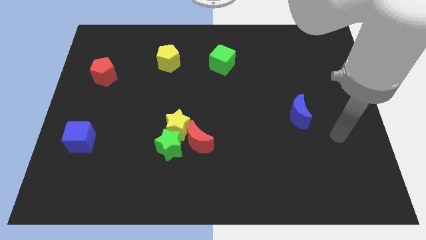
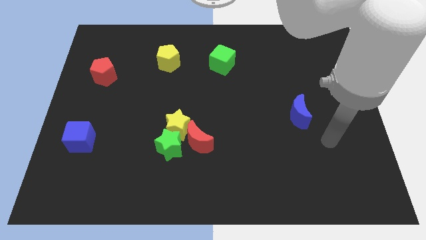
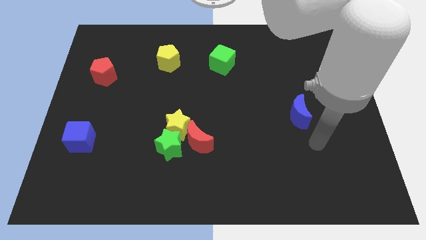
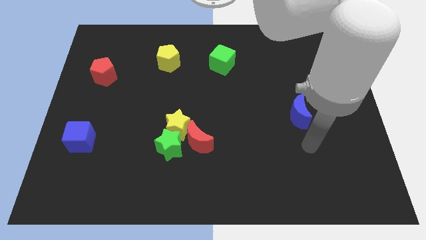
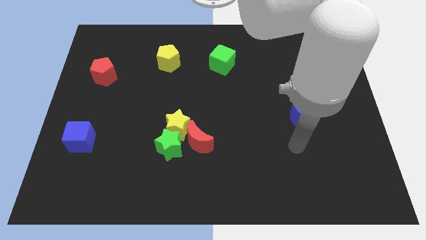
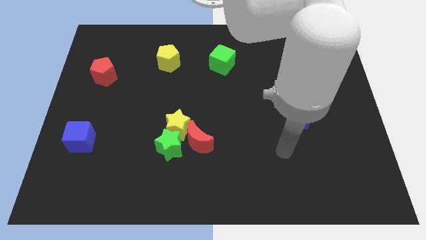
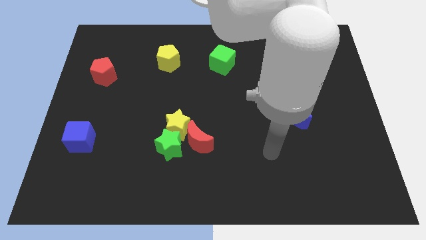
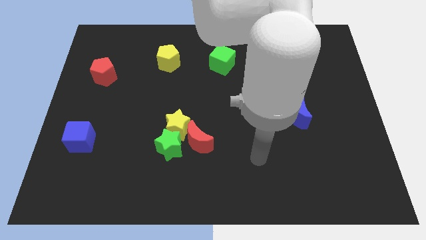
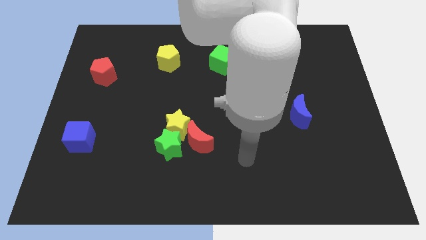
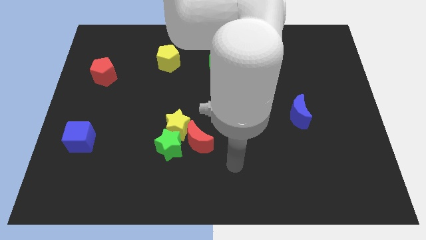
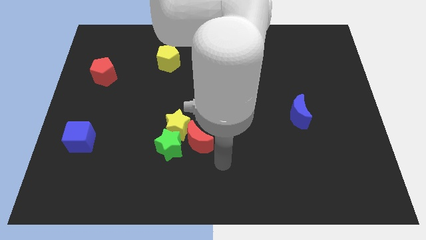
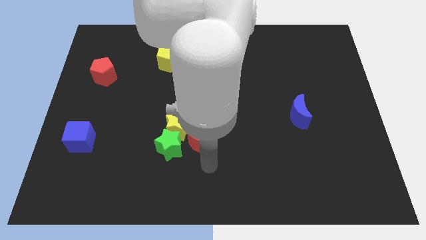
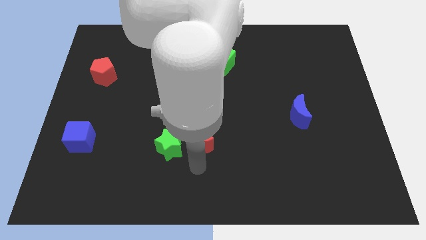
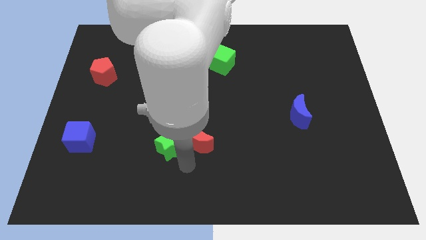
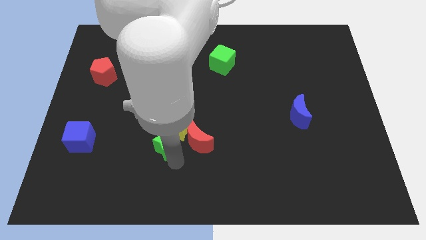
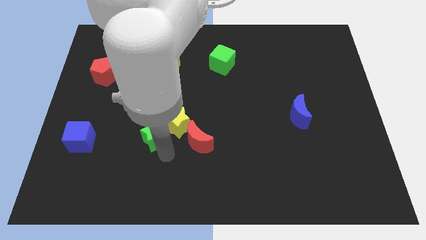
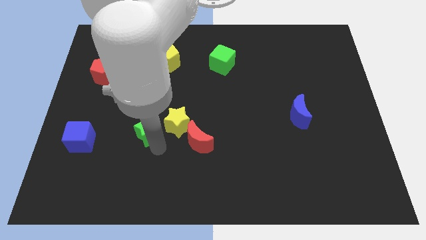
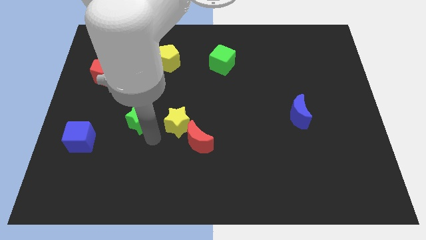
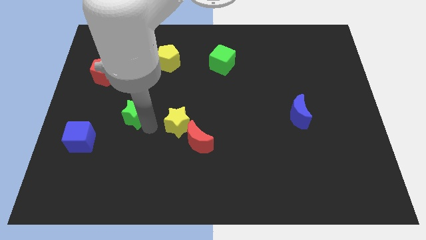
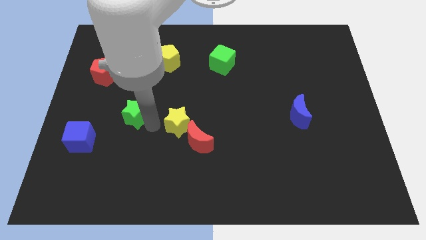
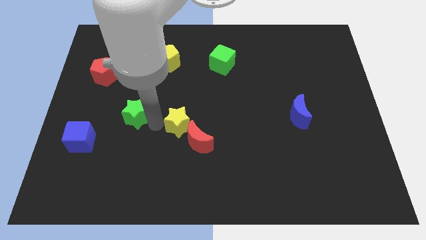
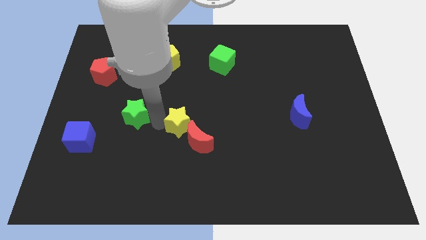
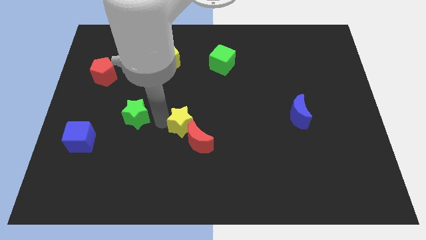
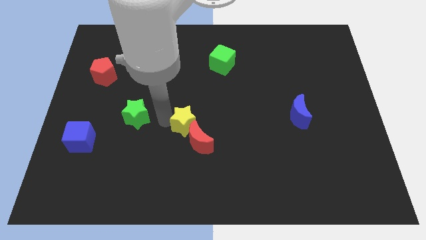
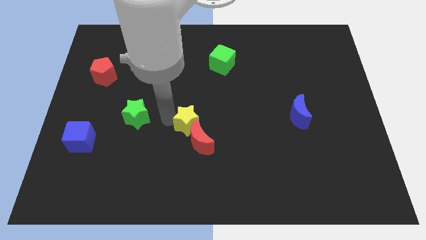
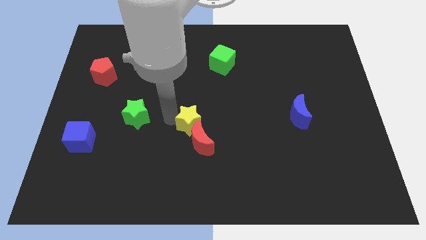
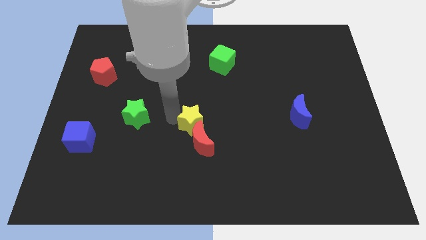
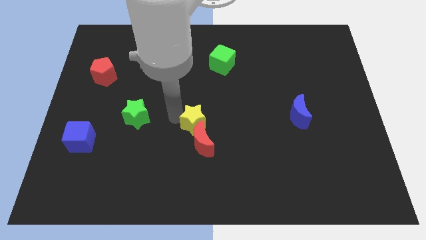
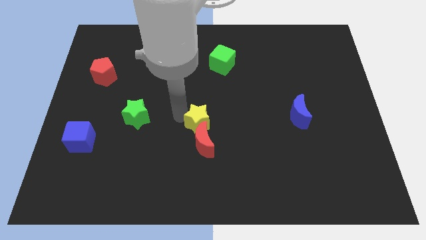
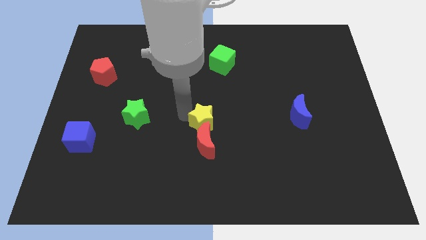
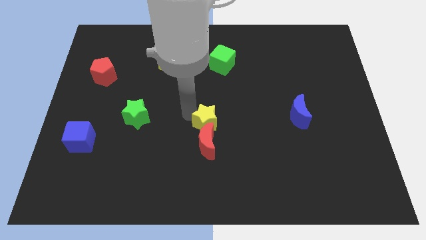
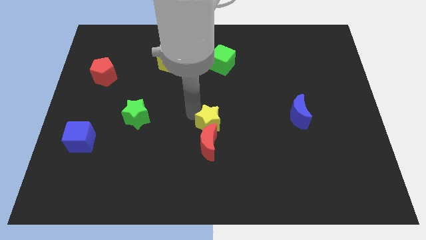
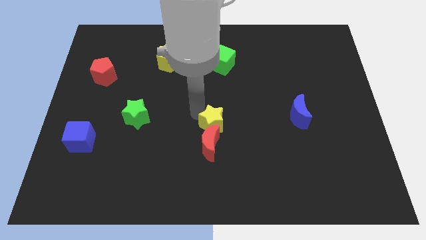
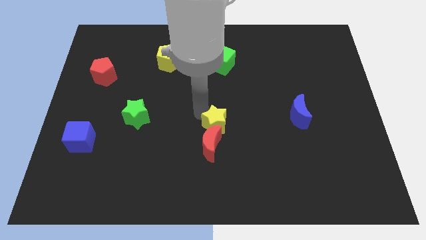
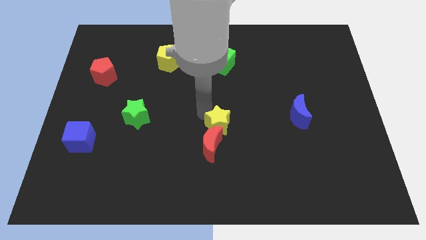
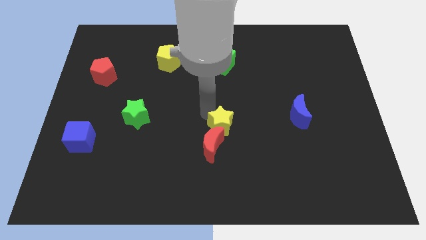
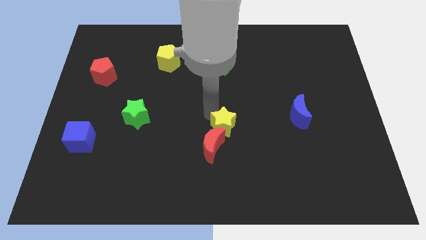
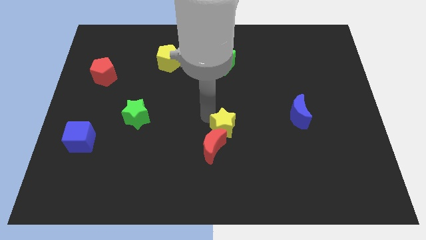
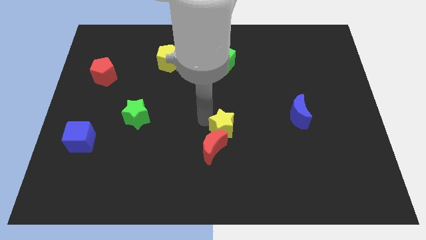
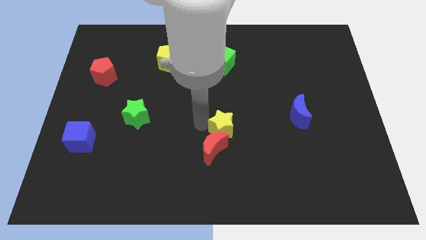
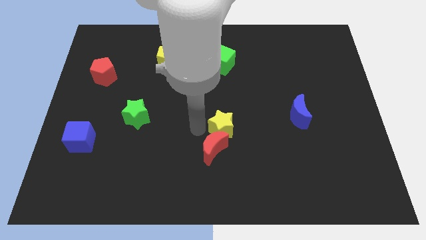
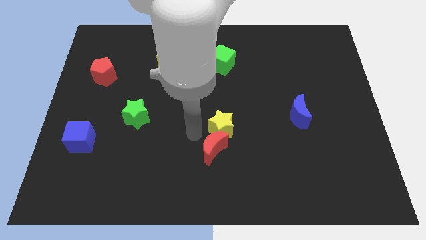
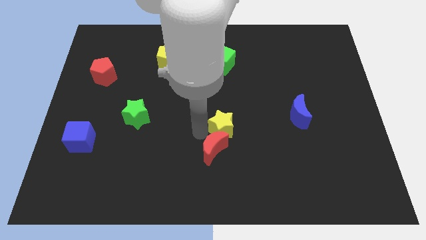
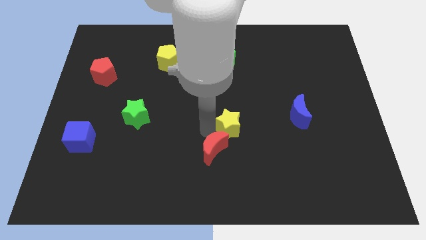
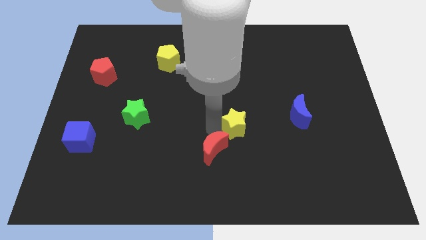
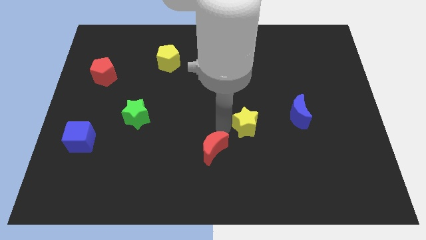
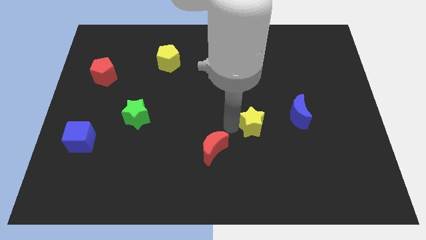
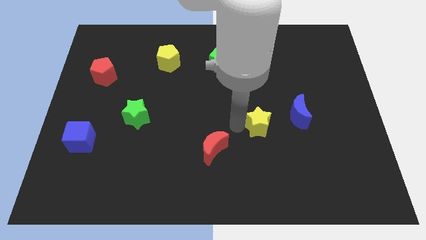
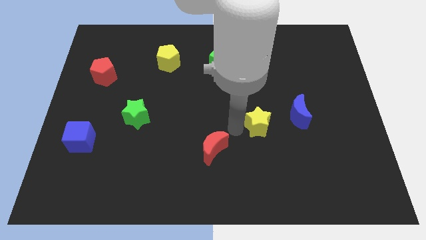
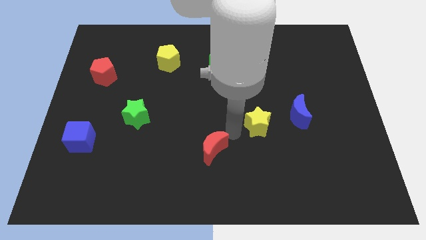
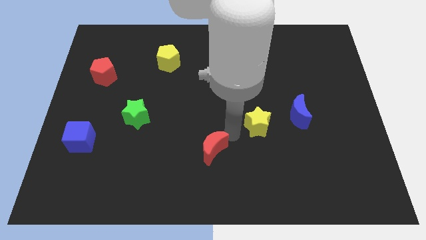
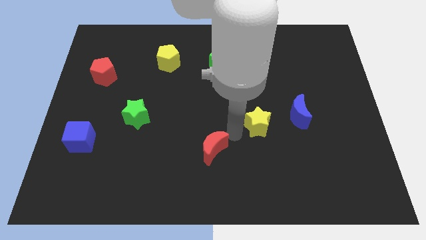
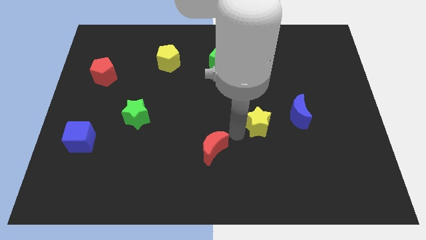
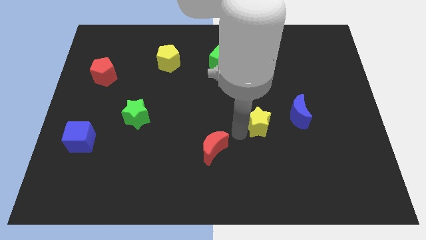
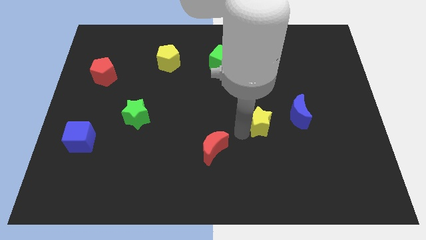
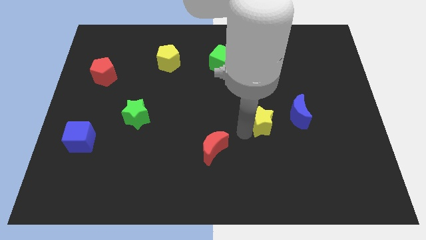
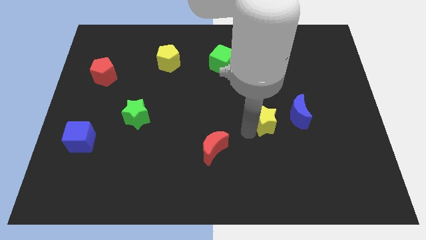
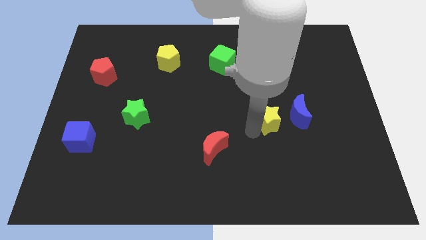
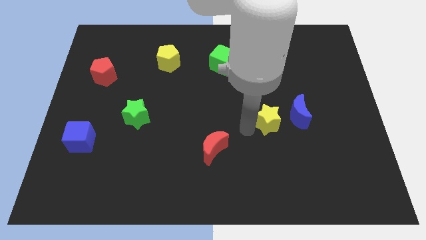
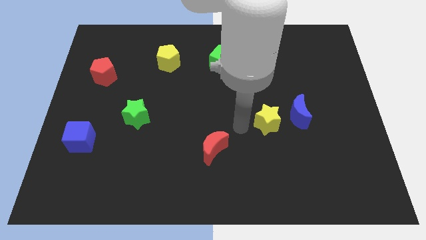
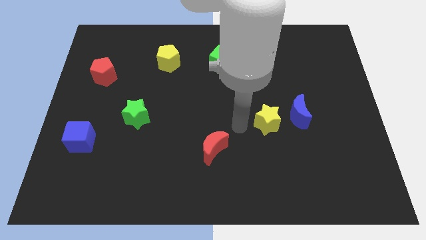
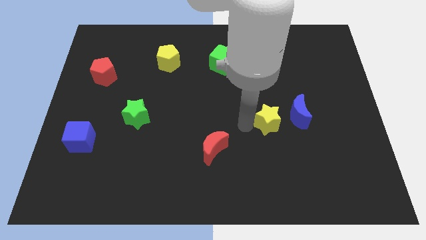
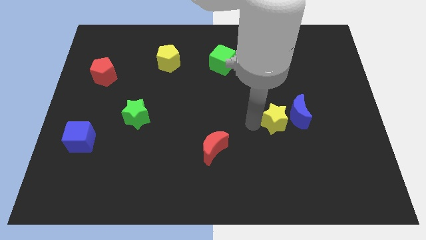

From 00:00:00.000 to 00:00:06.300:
slide the yellow star next to the blue moon

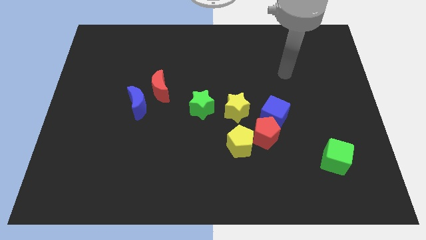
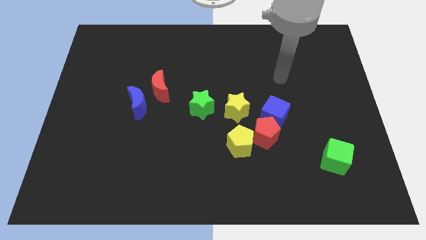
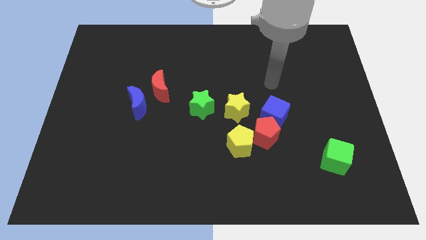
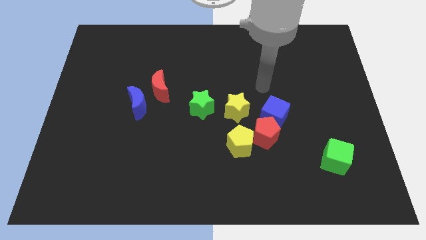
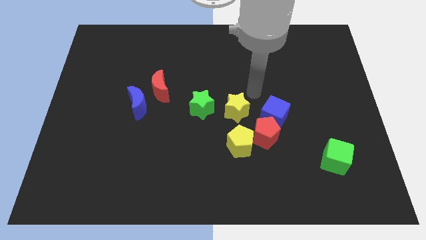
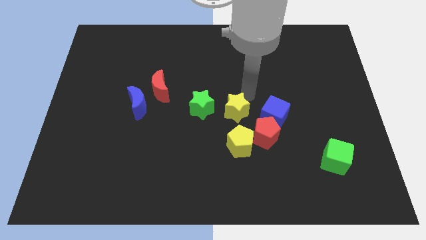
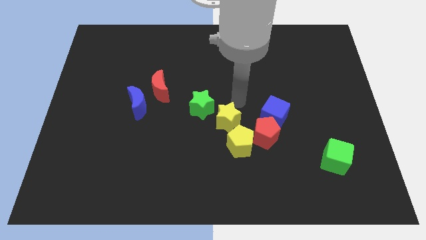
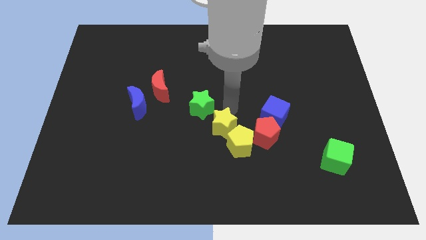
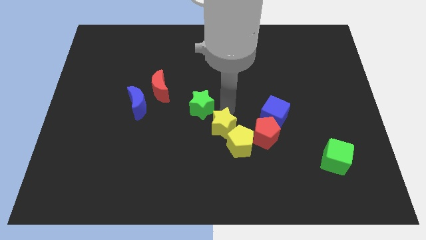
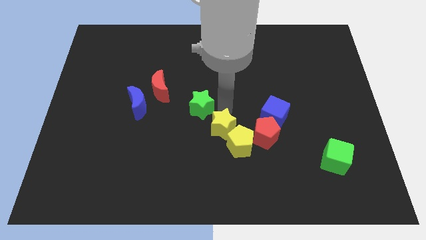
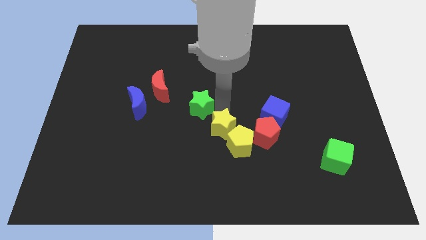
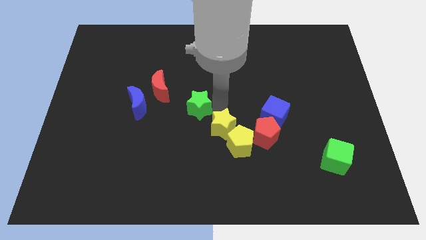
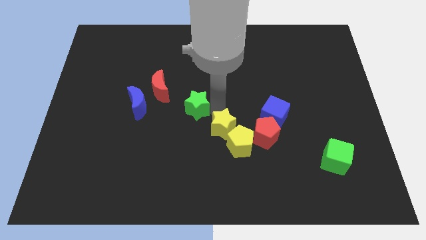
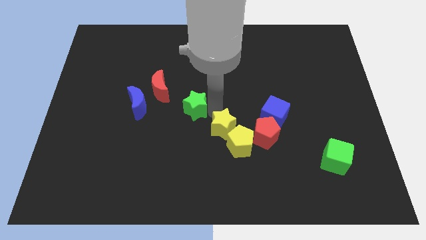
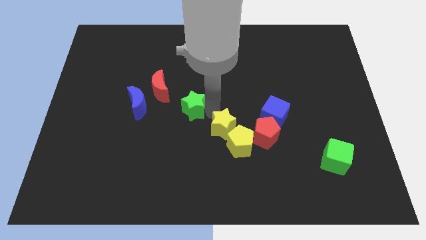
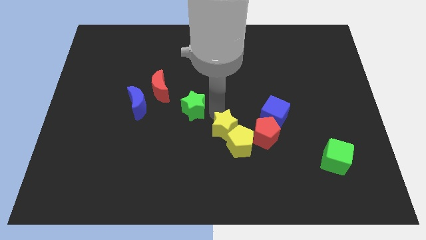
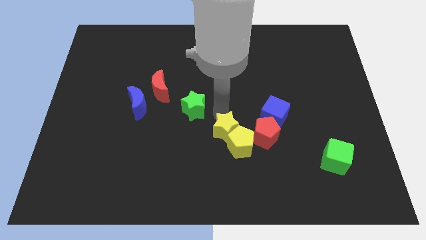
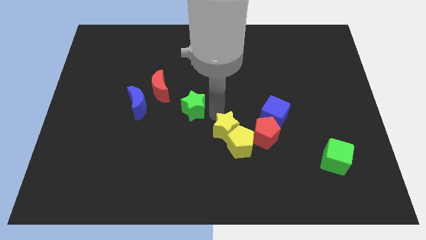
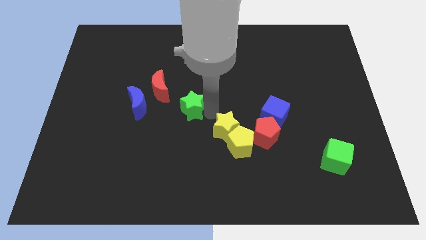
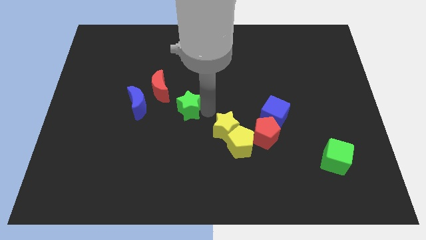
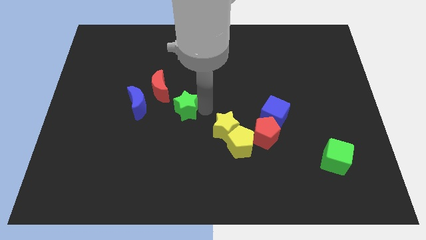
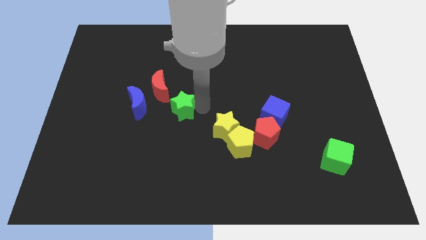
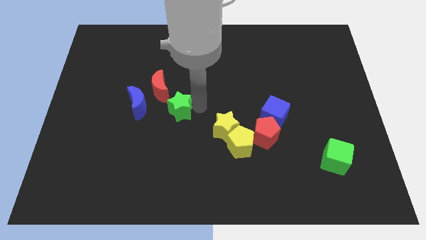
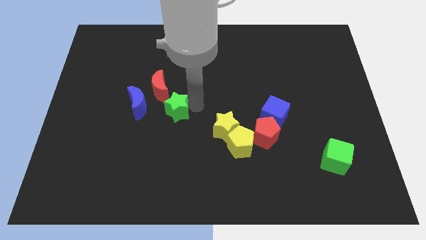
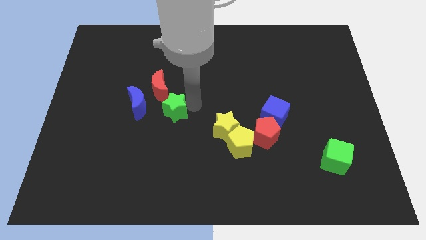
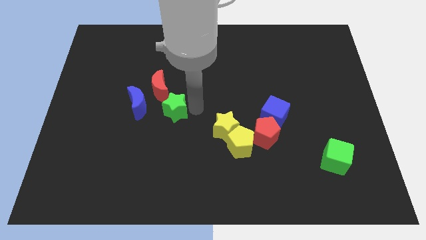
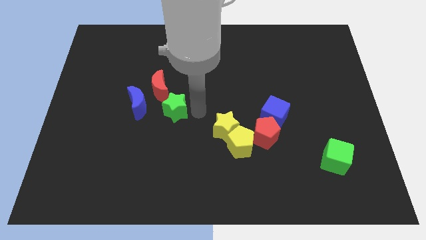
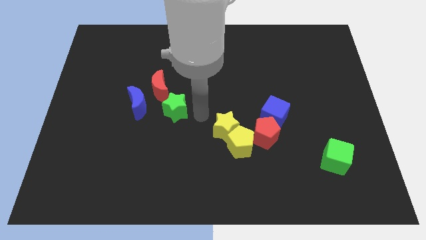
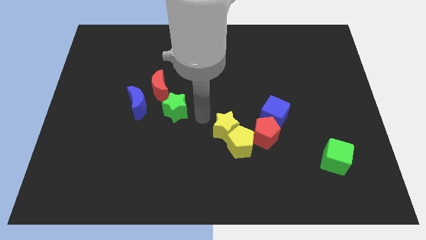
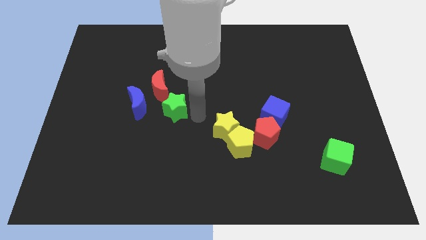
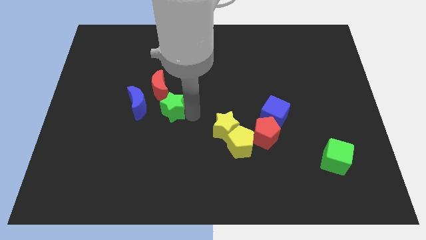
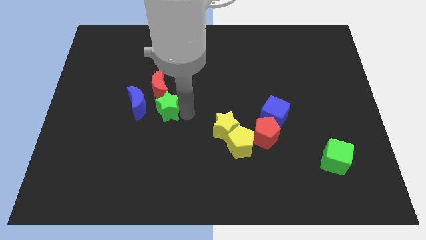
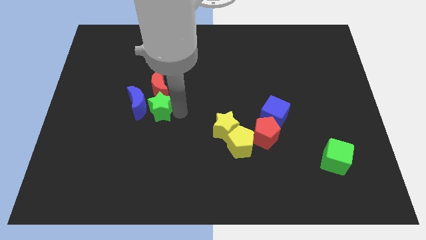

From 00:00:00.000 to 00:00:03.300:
slide the green star to the blue moon
